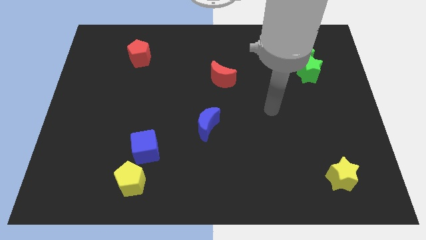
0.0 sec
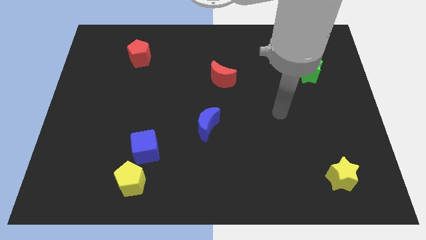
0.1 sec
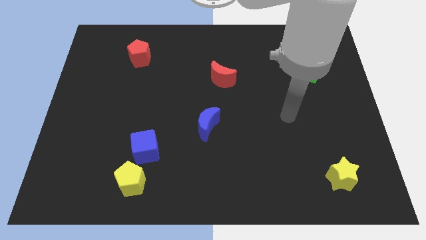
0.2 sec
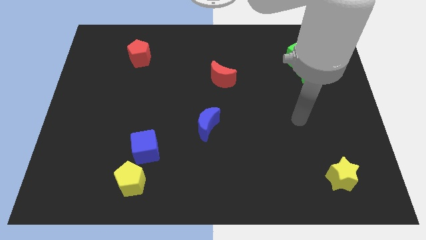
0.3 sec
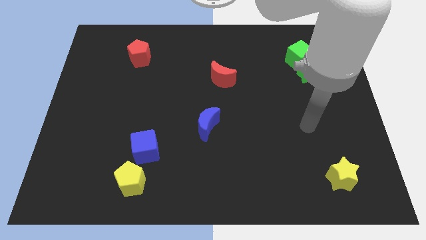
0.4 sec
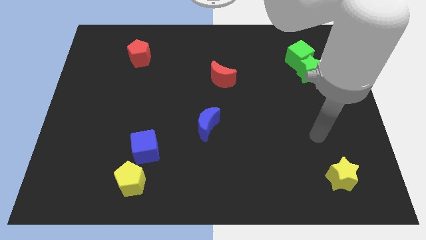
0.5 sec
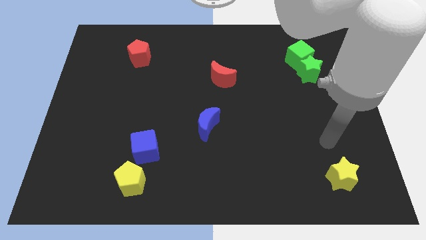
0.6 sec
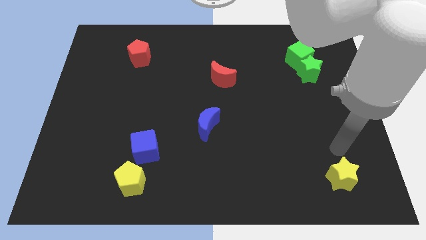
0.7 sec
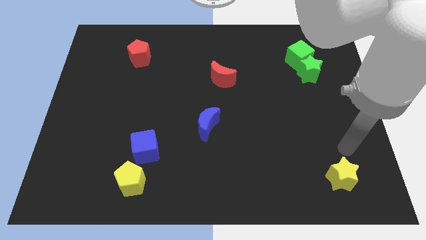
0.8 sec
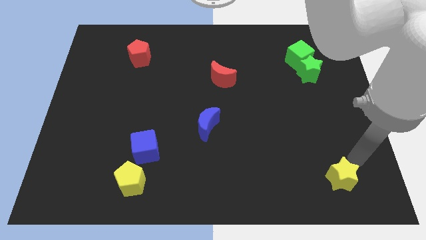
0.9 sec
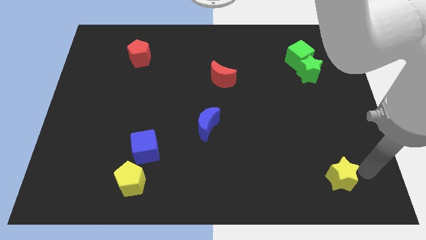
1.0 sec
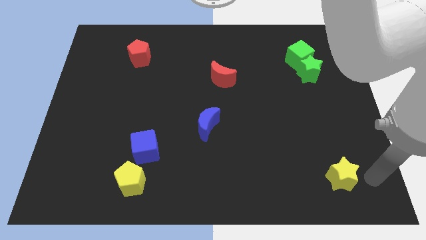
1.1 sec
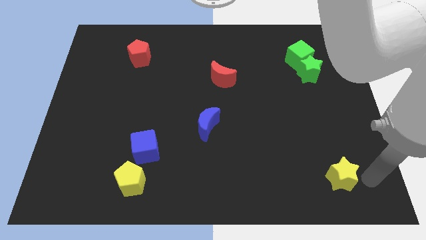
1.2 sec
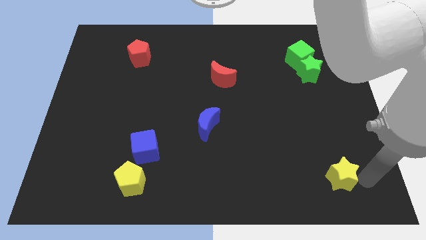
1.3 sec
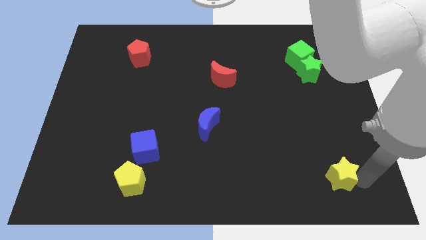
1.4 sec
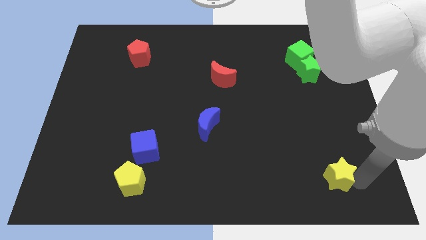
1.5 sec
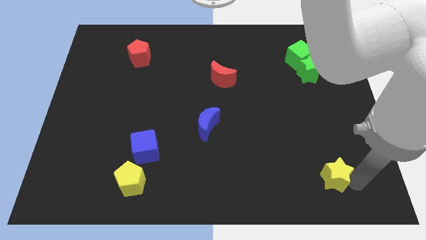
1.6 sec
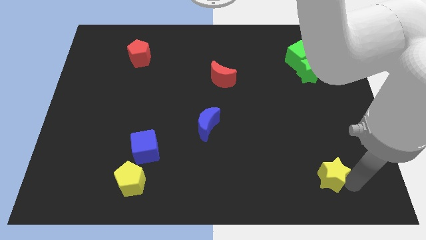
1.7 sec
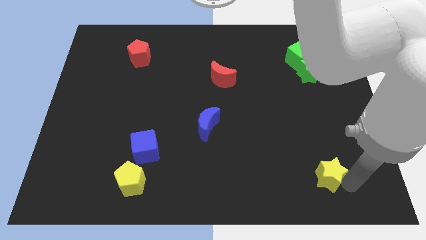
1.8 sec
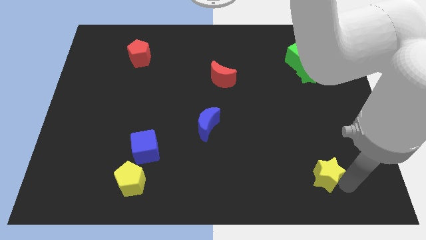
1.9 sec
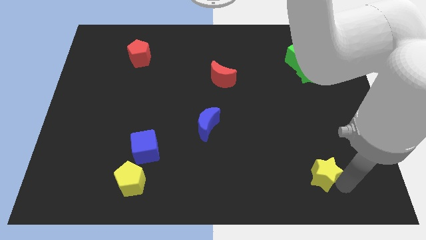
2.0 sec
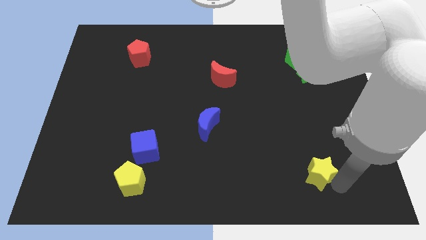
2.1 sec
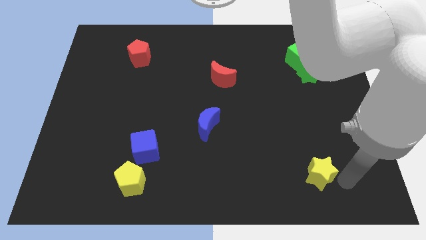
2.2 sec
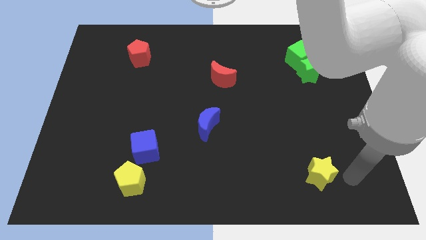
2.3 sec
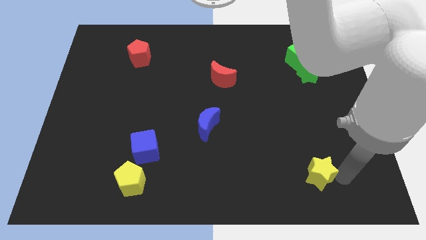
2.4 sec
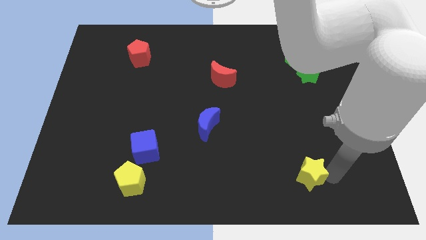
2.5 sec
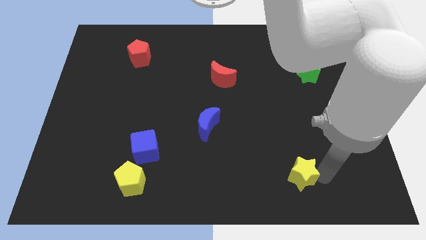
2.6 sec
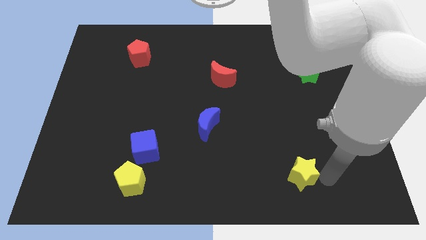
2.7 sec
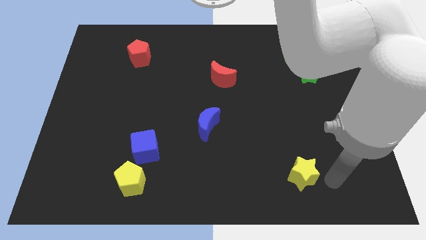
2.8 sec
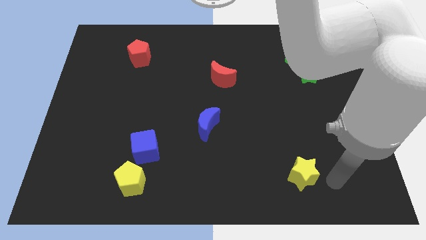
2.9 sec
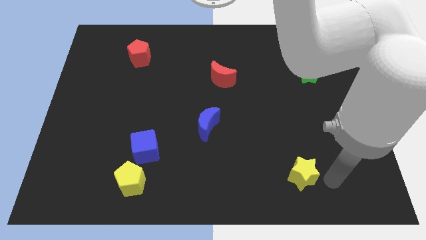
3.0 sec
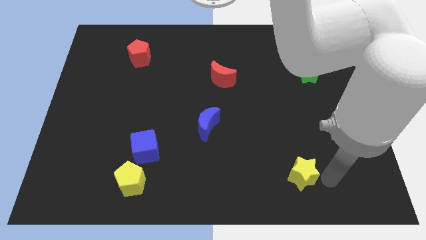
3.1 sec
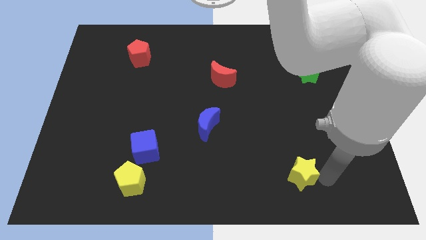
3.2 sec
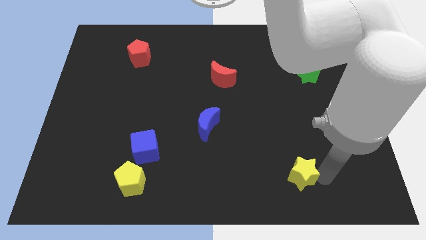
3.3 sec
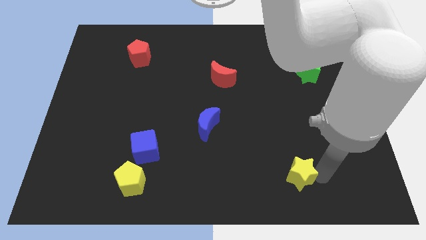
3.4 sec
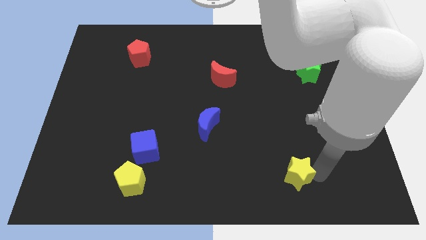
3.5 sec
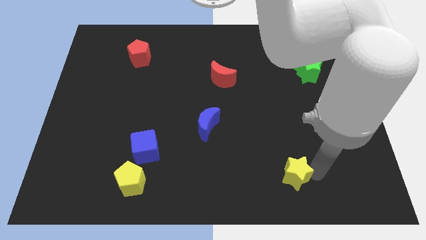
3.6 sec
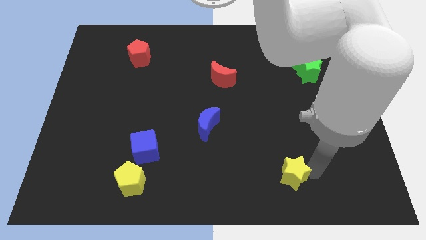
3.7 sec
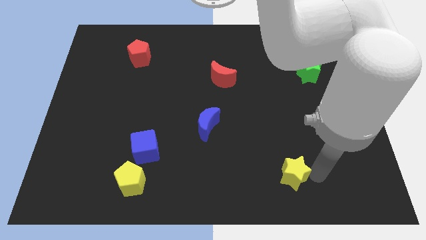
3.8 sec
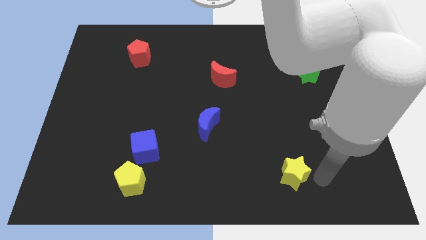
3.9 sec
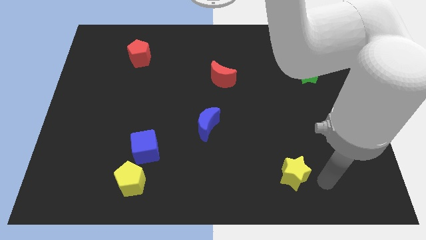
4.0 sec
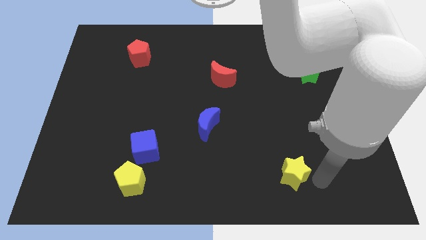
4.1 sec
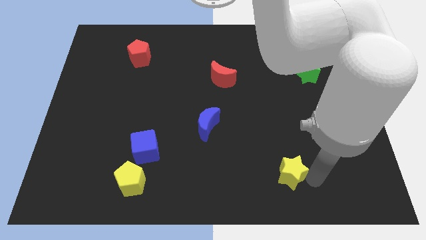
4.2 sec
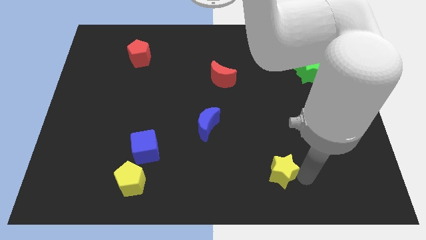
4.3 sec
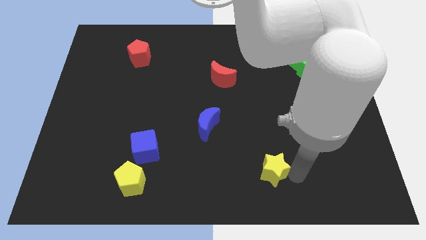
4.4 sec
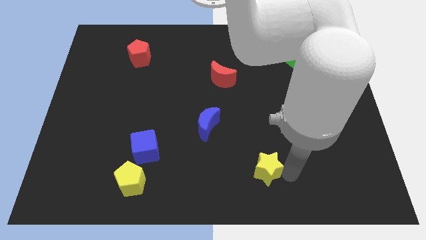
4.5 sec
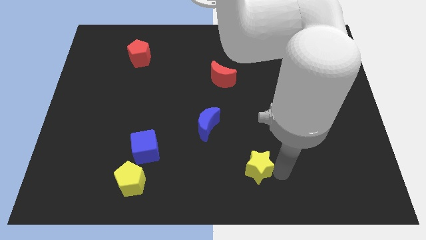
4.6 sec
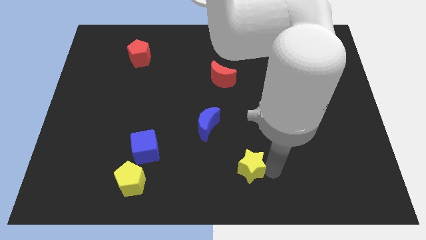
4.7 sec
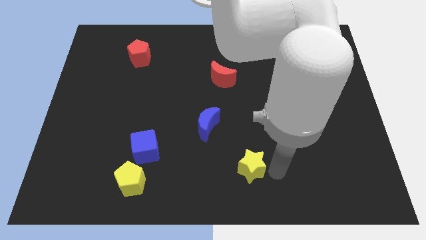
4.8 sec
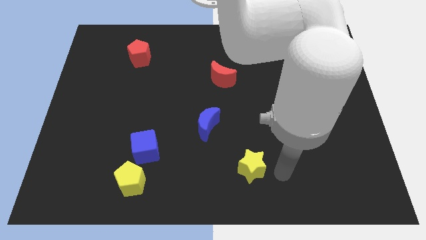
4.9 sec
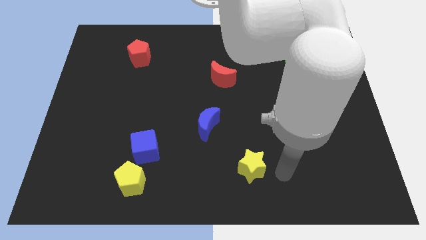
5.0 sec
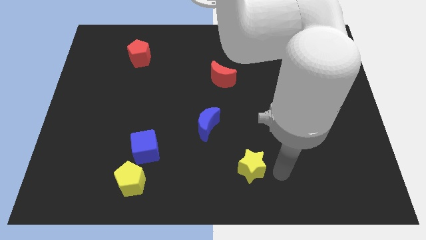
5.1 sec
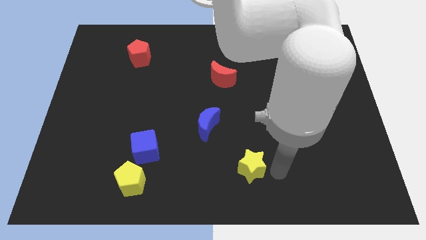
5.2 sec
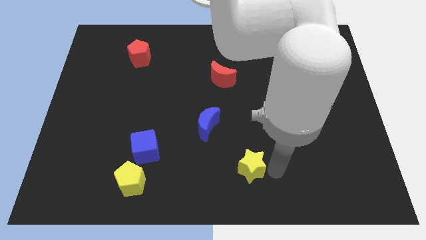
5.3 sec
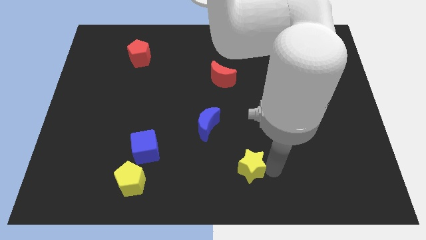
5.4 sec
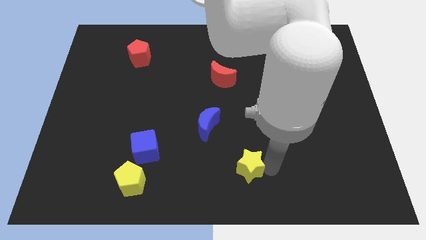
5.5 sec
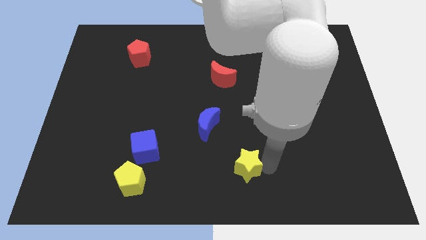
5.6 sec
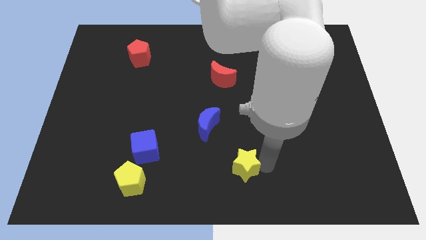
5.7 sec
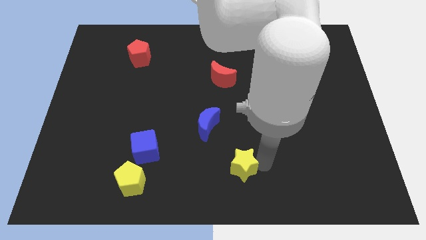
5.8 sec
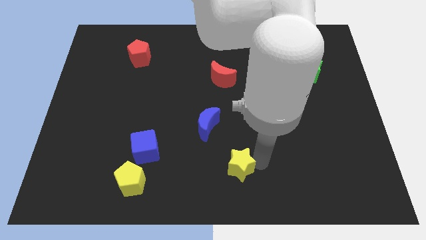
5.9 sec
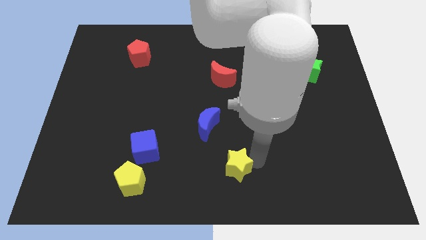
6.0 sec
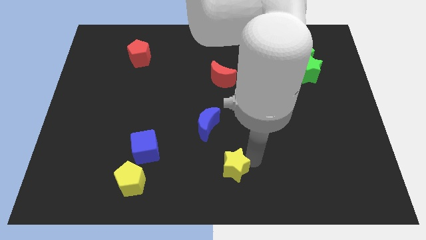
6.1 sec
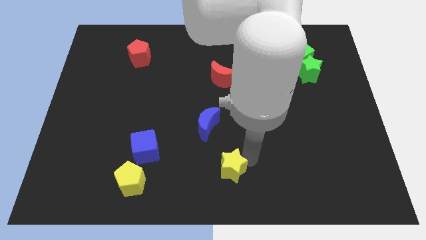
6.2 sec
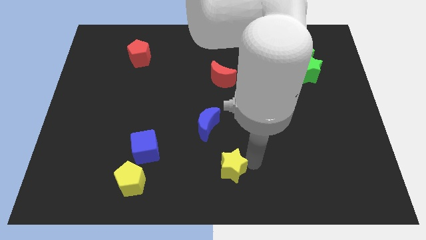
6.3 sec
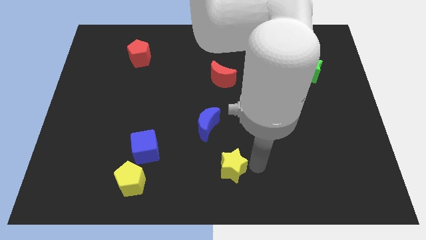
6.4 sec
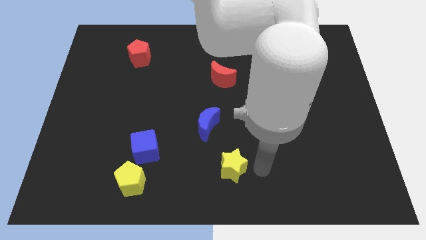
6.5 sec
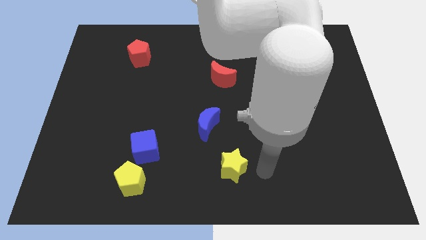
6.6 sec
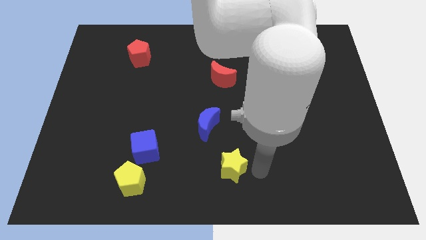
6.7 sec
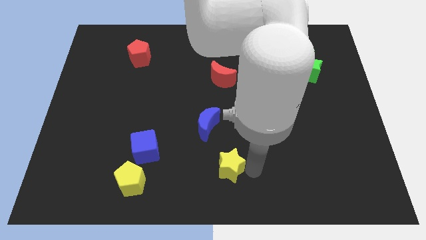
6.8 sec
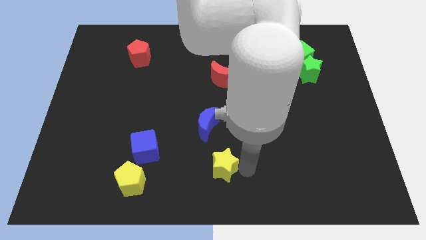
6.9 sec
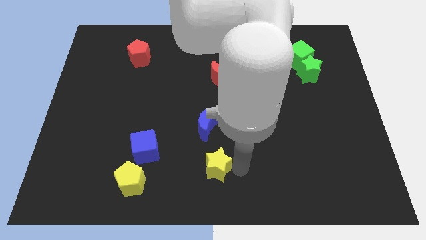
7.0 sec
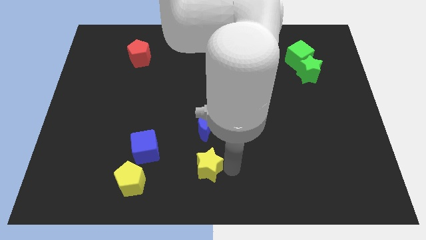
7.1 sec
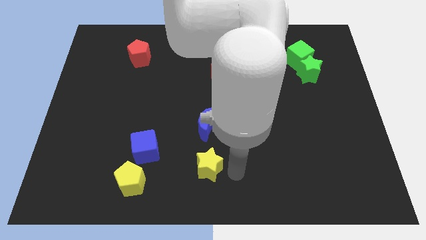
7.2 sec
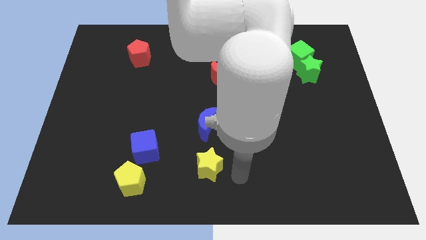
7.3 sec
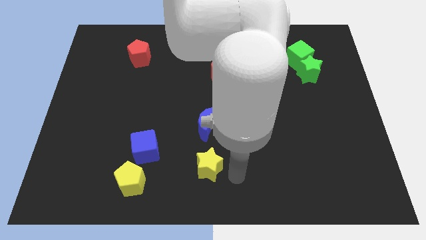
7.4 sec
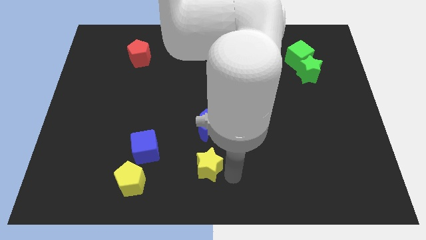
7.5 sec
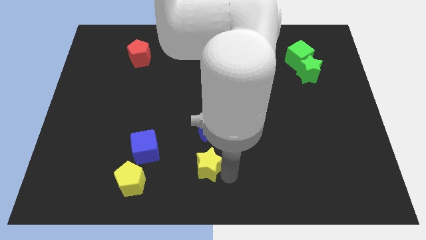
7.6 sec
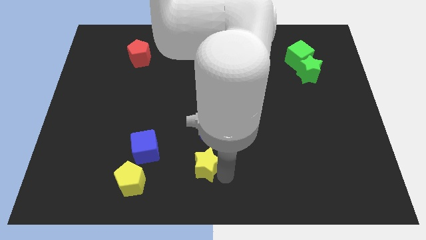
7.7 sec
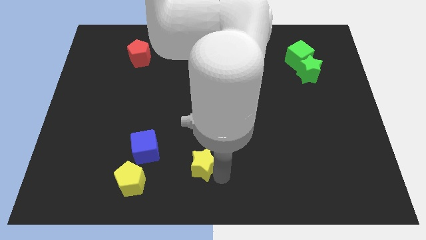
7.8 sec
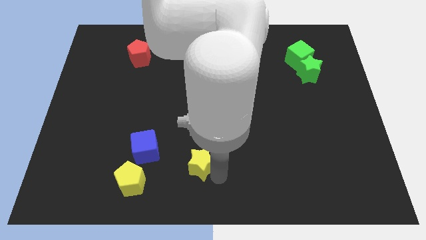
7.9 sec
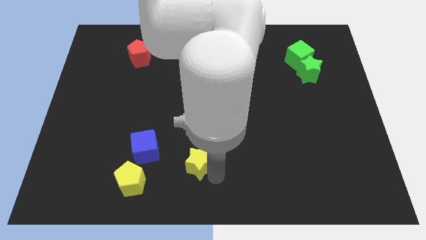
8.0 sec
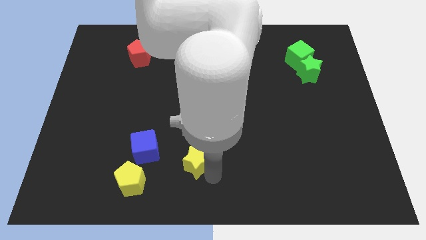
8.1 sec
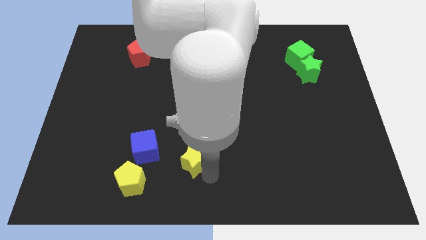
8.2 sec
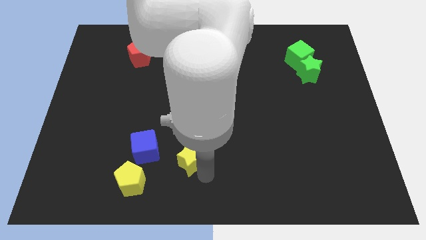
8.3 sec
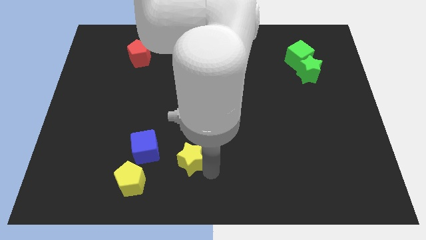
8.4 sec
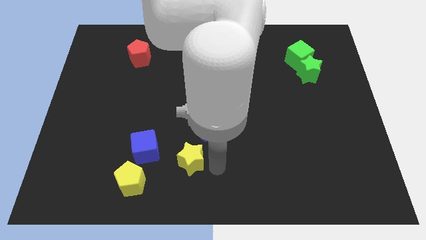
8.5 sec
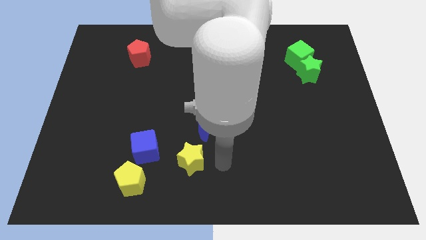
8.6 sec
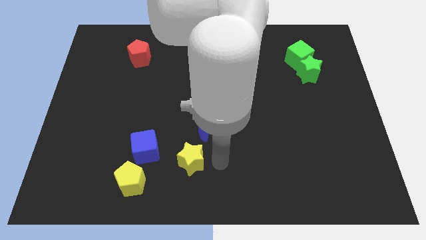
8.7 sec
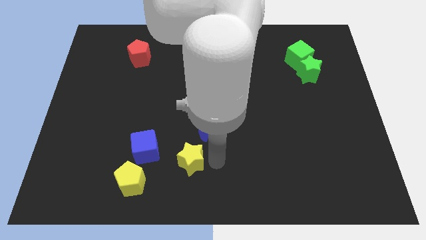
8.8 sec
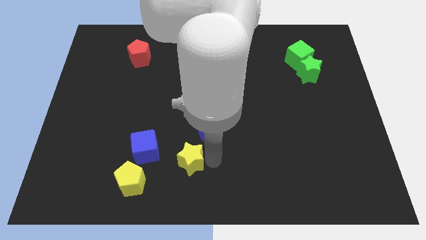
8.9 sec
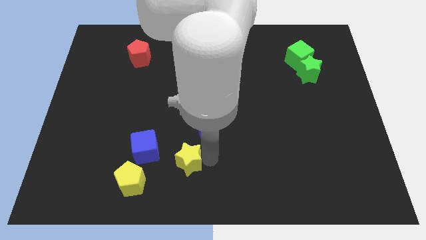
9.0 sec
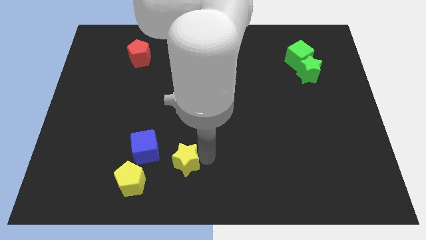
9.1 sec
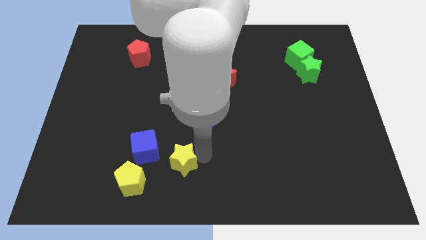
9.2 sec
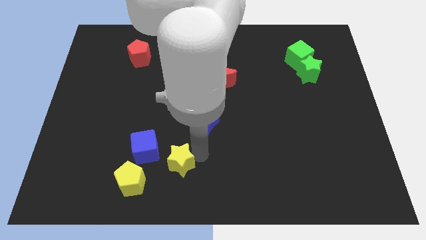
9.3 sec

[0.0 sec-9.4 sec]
put the yellow star diagonally up and to the right of the yellow pentagon
